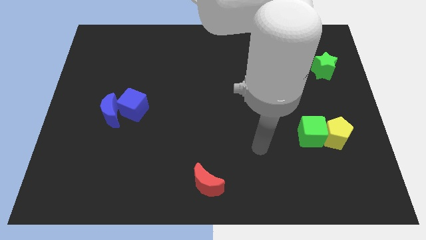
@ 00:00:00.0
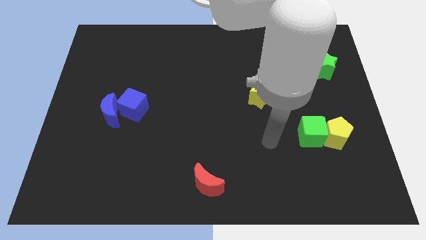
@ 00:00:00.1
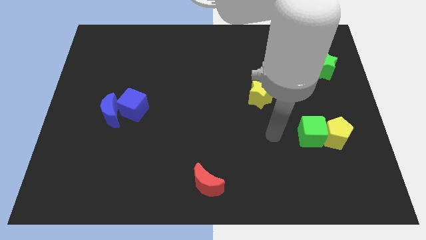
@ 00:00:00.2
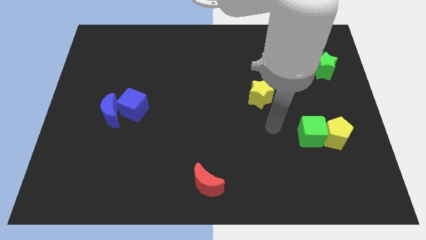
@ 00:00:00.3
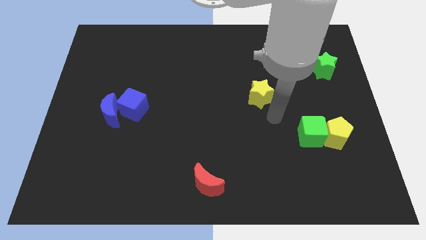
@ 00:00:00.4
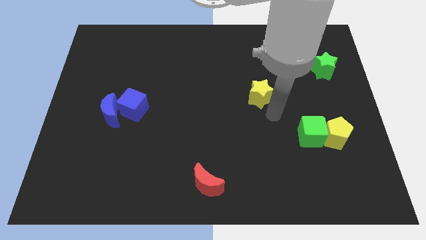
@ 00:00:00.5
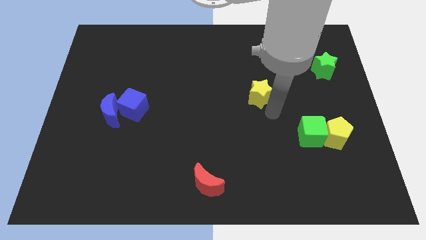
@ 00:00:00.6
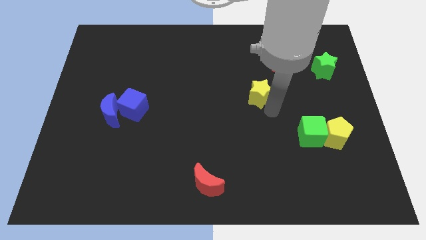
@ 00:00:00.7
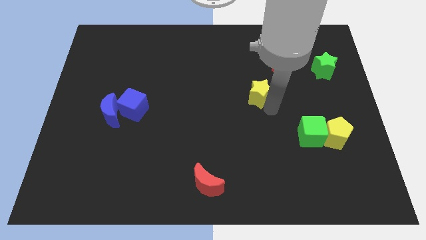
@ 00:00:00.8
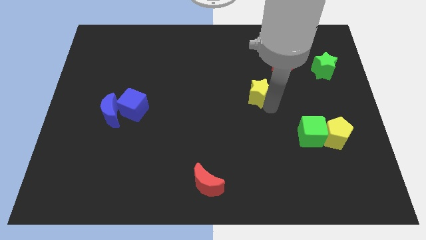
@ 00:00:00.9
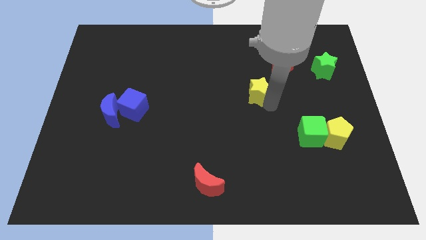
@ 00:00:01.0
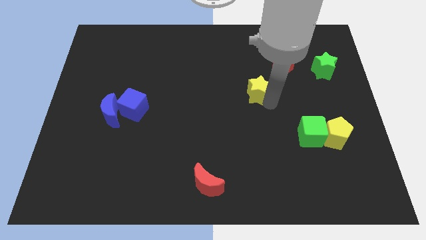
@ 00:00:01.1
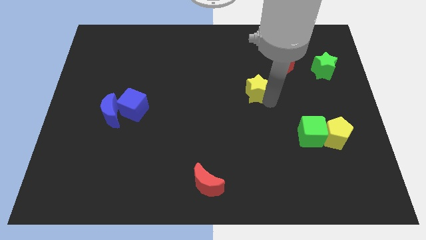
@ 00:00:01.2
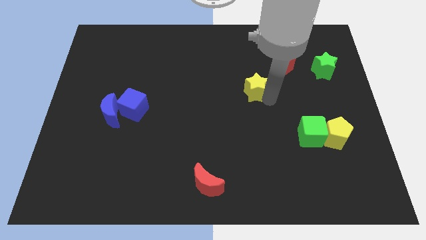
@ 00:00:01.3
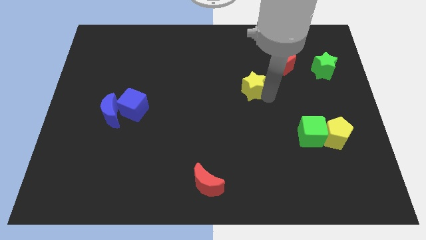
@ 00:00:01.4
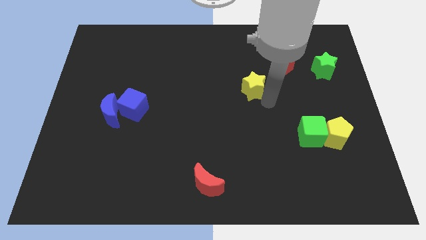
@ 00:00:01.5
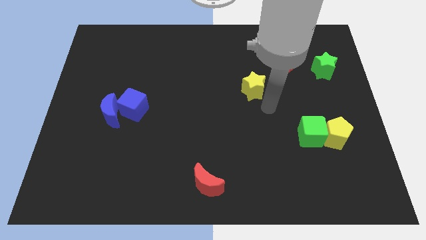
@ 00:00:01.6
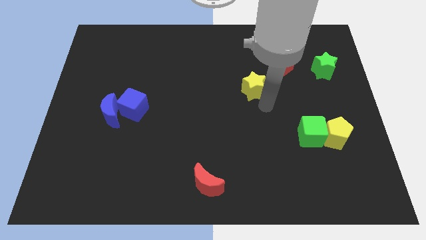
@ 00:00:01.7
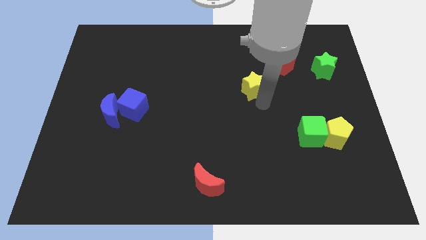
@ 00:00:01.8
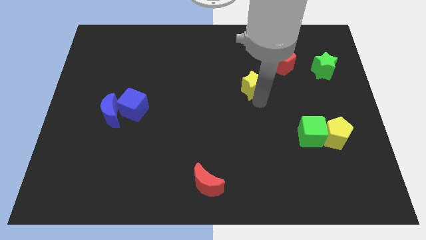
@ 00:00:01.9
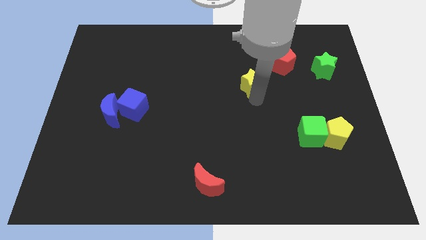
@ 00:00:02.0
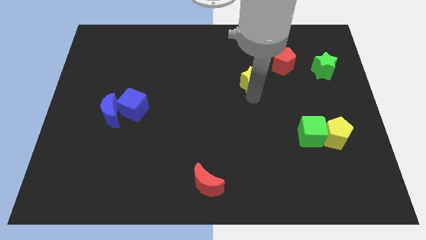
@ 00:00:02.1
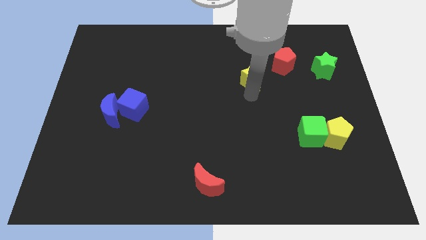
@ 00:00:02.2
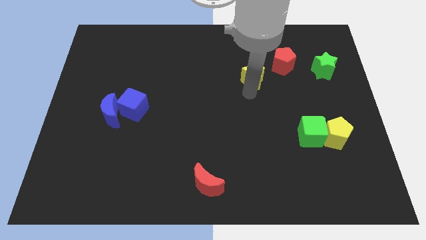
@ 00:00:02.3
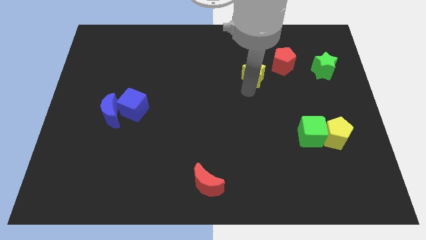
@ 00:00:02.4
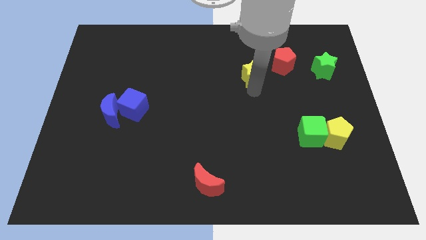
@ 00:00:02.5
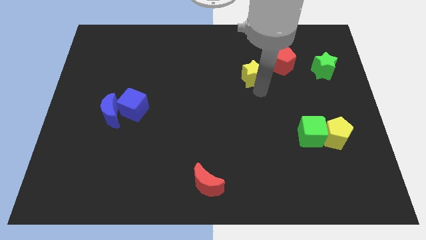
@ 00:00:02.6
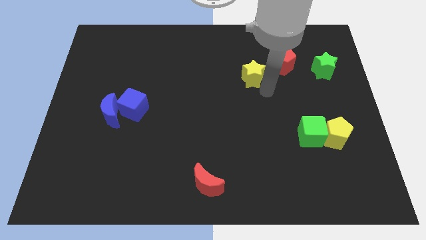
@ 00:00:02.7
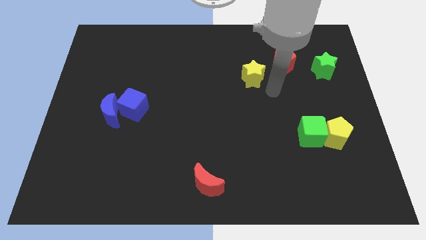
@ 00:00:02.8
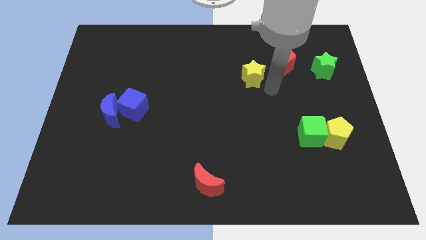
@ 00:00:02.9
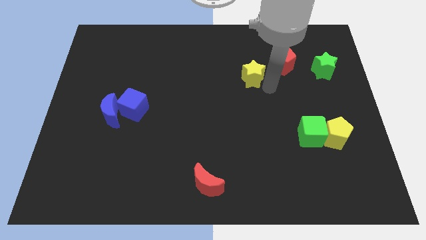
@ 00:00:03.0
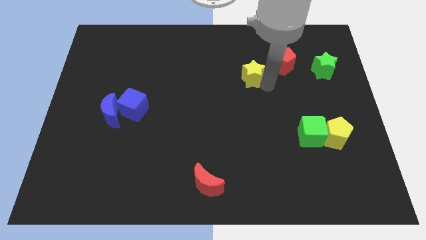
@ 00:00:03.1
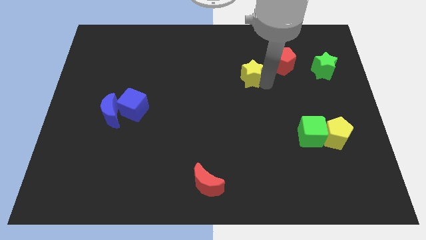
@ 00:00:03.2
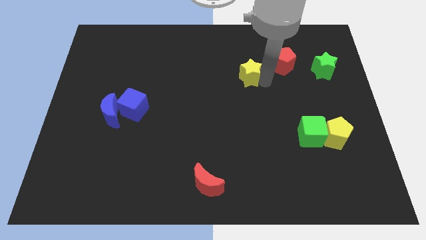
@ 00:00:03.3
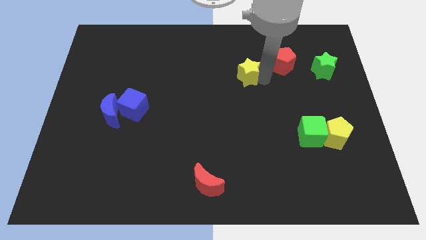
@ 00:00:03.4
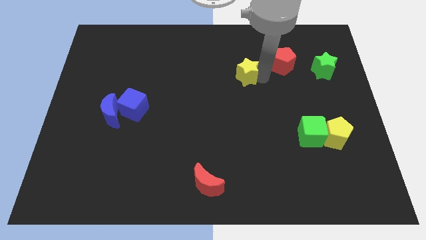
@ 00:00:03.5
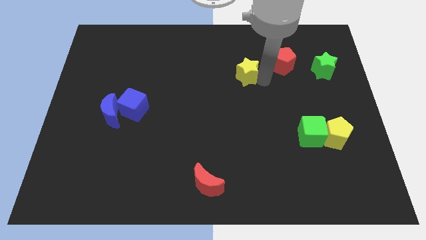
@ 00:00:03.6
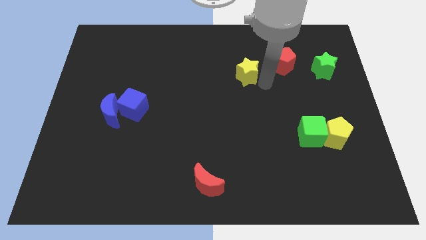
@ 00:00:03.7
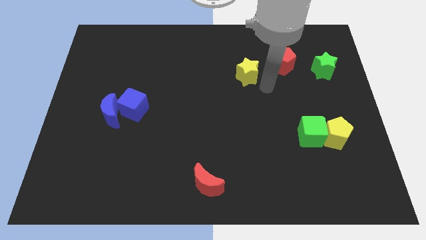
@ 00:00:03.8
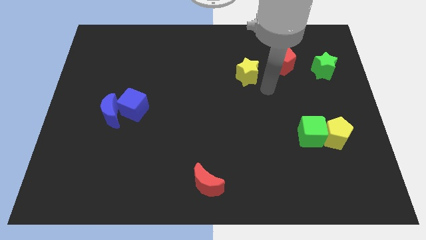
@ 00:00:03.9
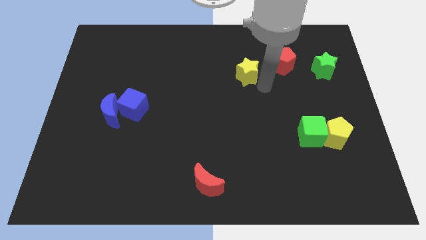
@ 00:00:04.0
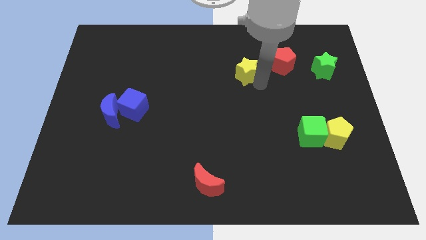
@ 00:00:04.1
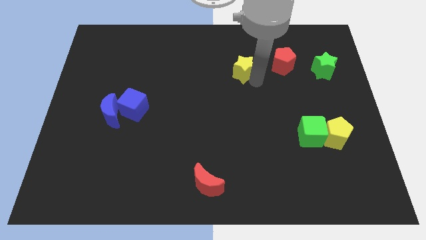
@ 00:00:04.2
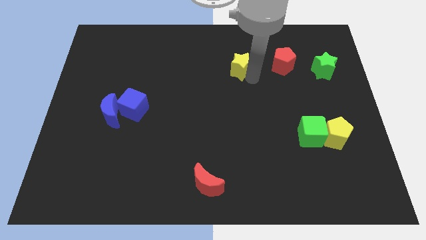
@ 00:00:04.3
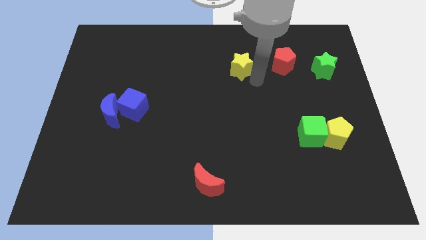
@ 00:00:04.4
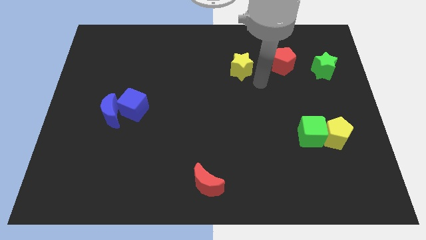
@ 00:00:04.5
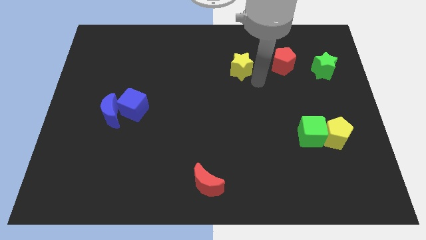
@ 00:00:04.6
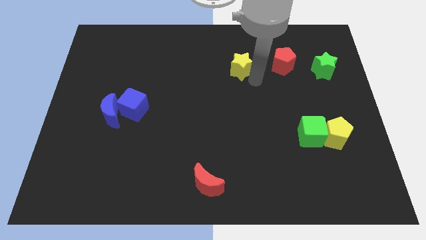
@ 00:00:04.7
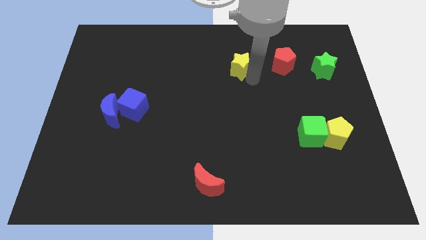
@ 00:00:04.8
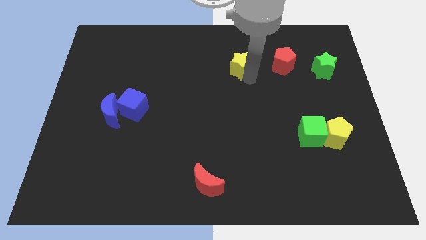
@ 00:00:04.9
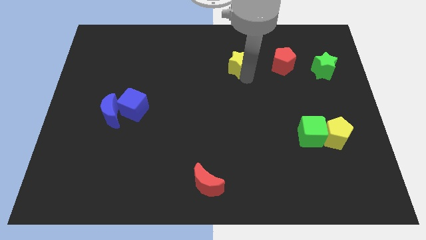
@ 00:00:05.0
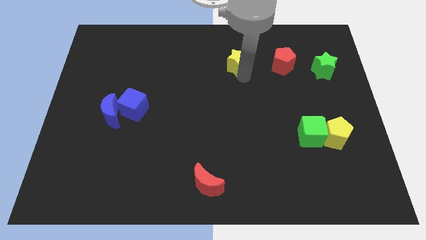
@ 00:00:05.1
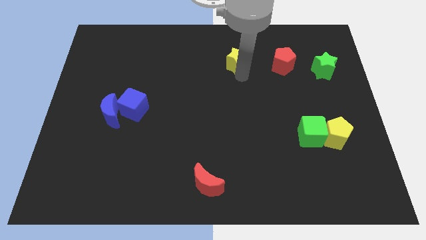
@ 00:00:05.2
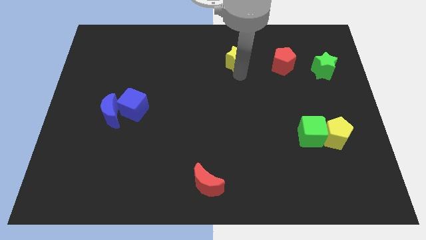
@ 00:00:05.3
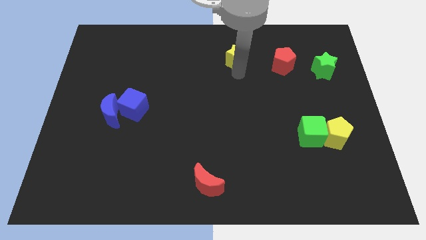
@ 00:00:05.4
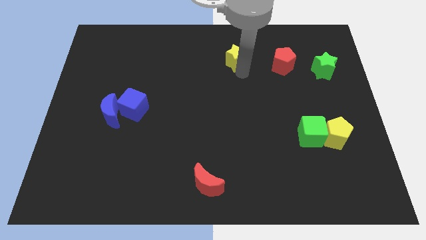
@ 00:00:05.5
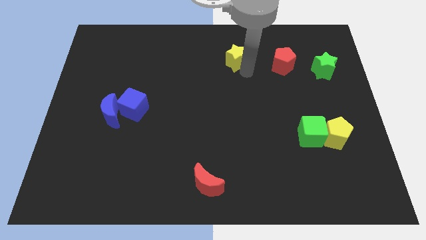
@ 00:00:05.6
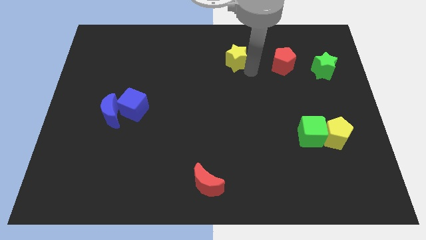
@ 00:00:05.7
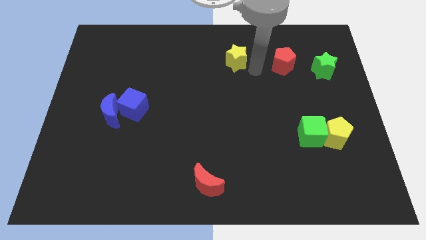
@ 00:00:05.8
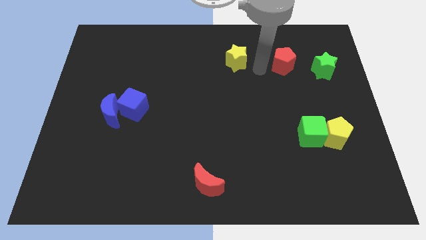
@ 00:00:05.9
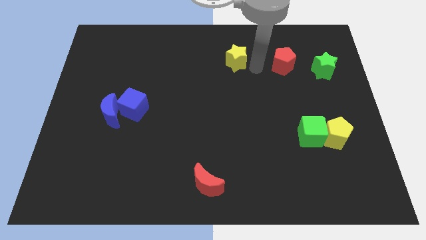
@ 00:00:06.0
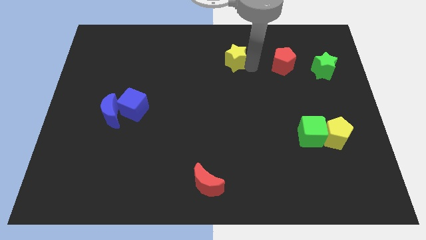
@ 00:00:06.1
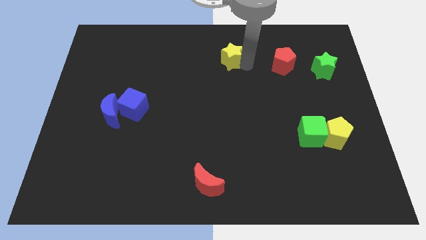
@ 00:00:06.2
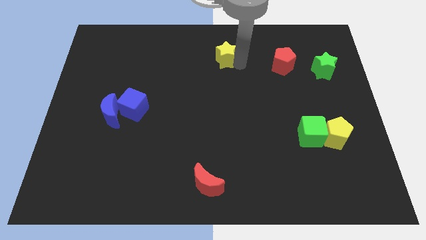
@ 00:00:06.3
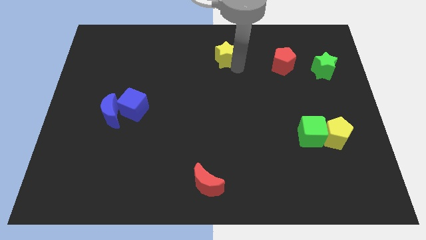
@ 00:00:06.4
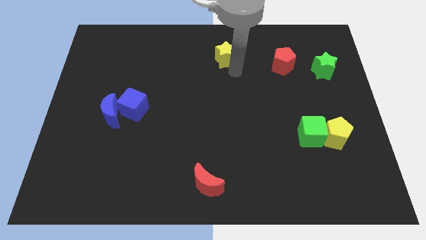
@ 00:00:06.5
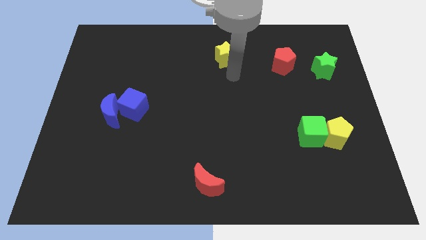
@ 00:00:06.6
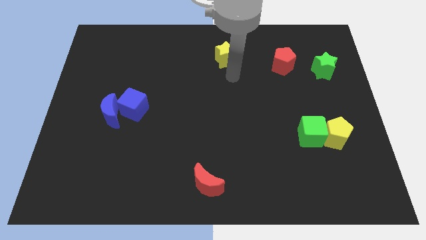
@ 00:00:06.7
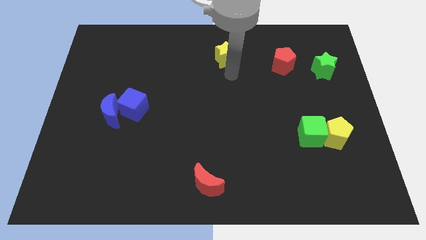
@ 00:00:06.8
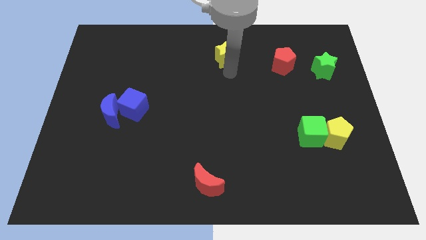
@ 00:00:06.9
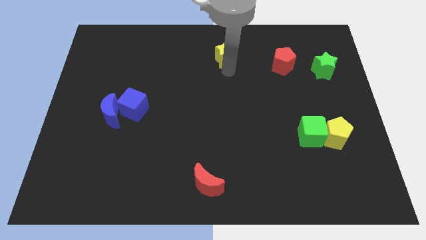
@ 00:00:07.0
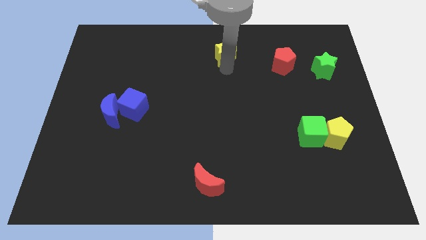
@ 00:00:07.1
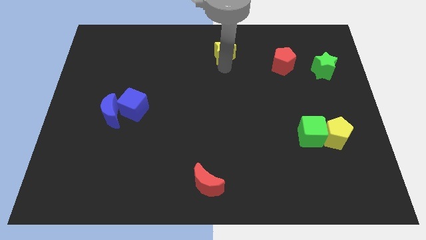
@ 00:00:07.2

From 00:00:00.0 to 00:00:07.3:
slide the yellow star to the towards your base
